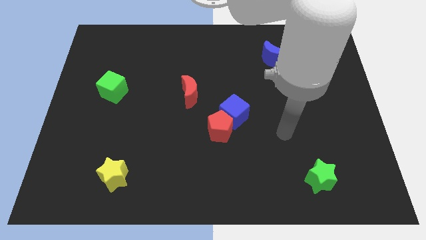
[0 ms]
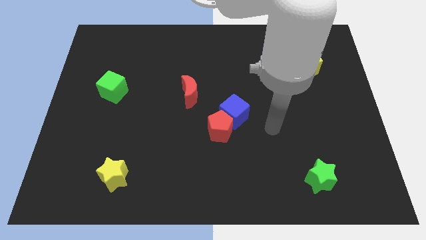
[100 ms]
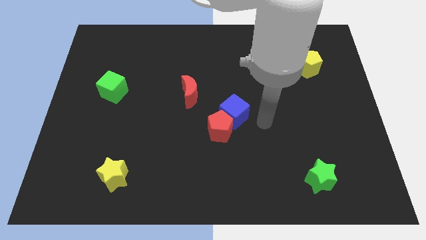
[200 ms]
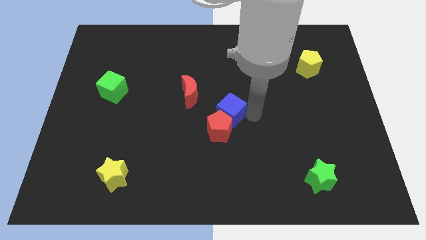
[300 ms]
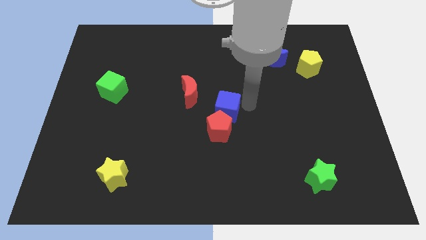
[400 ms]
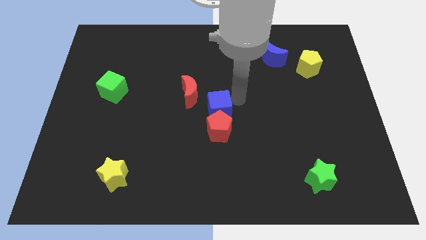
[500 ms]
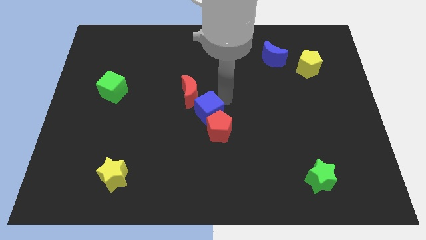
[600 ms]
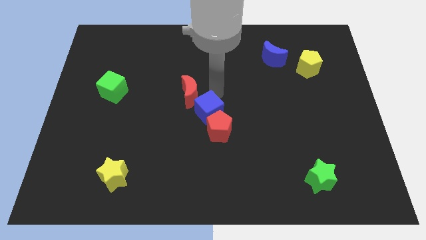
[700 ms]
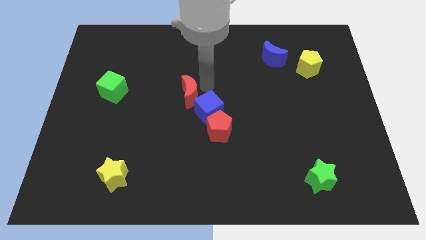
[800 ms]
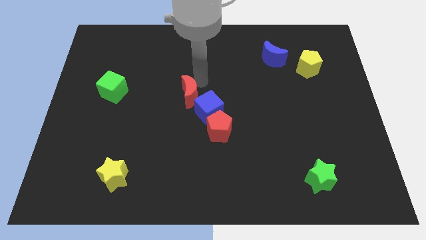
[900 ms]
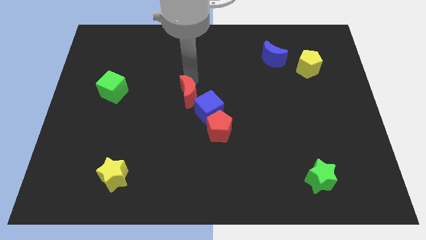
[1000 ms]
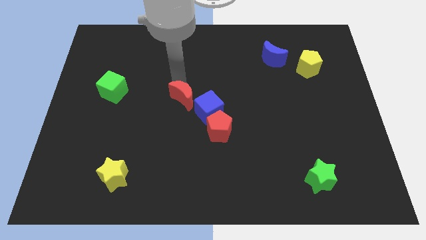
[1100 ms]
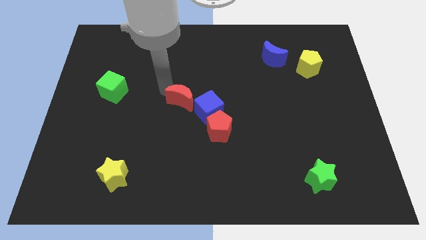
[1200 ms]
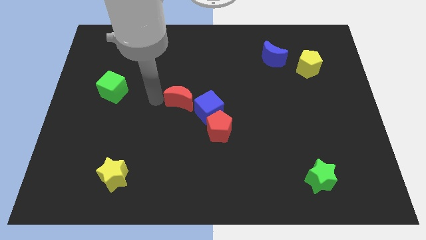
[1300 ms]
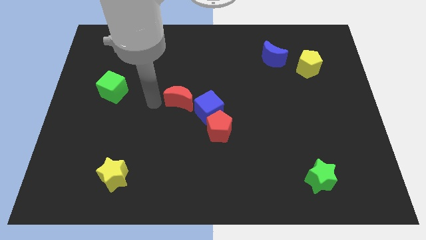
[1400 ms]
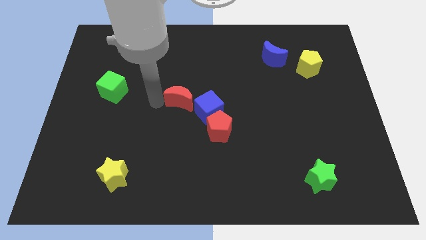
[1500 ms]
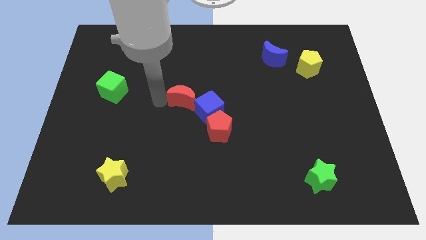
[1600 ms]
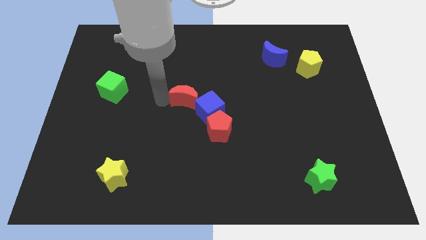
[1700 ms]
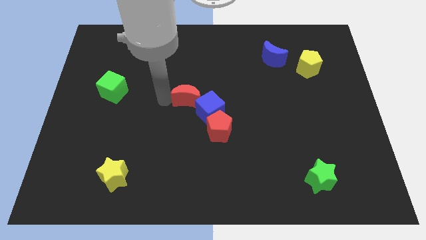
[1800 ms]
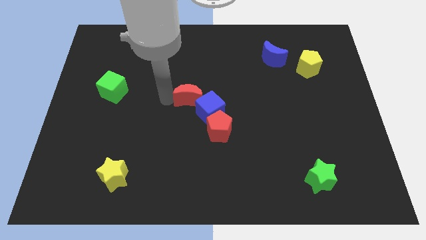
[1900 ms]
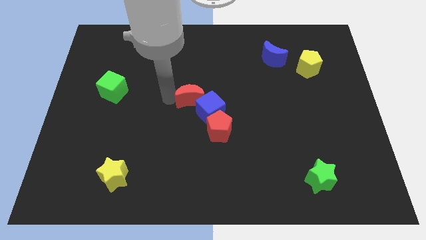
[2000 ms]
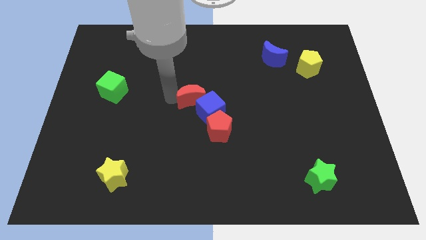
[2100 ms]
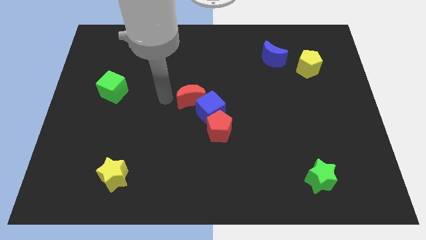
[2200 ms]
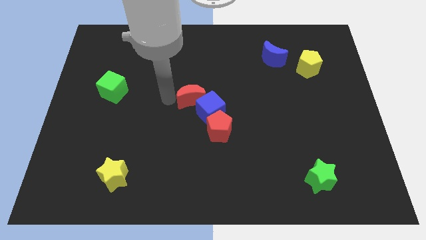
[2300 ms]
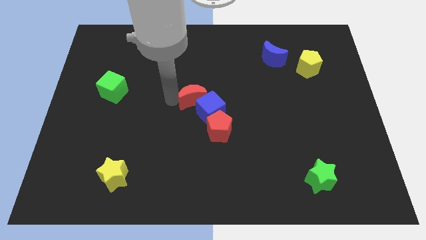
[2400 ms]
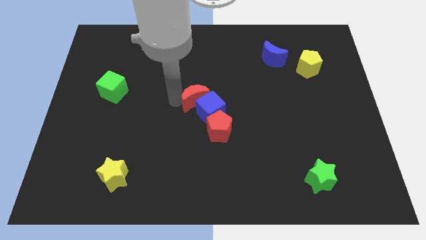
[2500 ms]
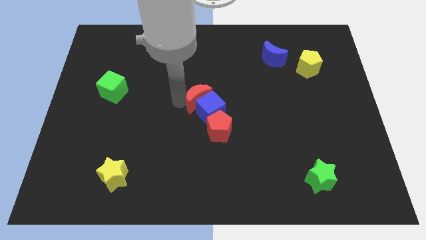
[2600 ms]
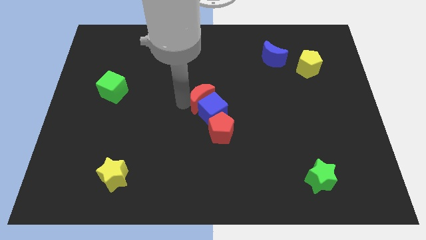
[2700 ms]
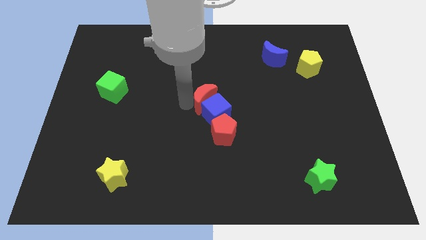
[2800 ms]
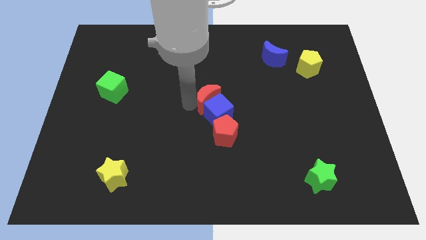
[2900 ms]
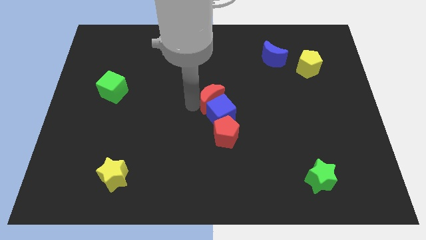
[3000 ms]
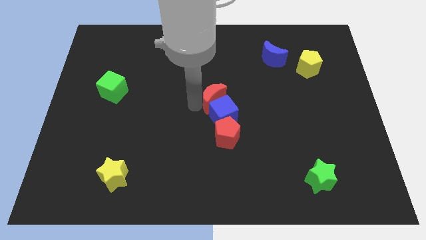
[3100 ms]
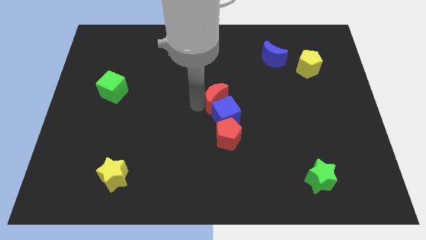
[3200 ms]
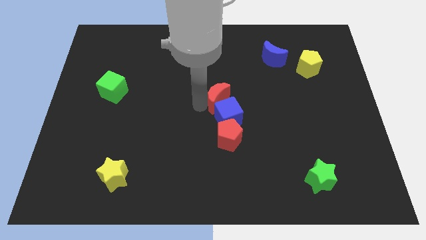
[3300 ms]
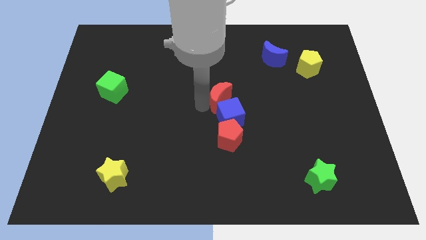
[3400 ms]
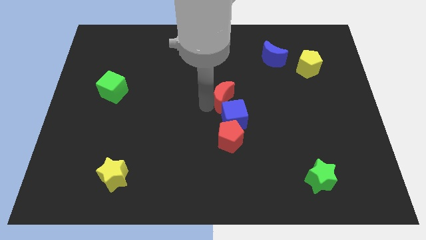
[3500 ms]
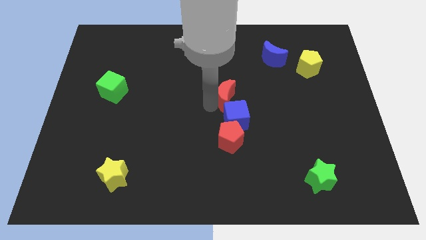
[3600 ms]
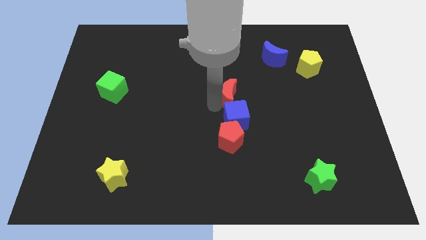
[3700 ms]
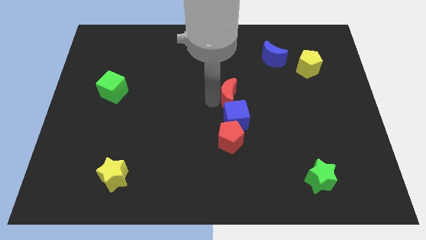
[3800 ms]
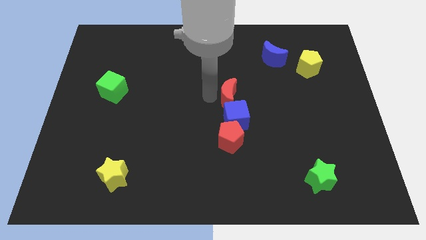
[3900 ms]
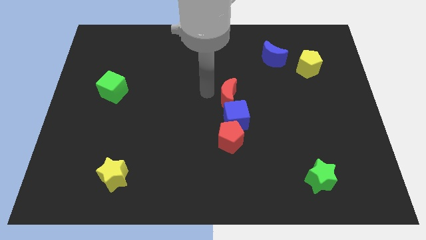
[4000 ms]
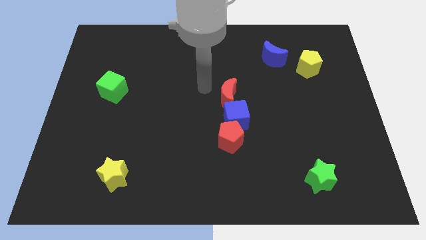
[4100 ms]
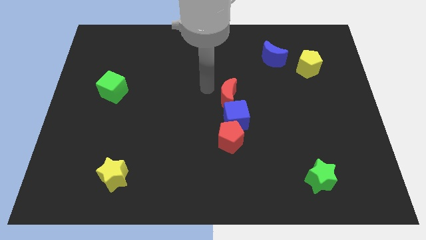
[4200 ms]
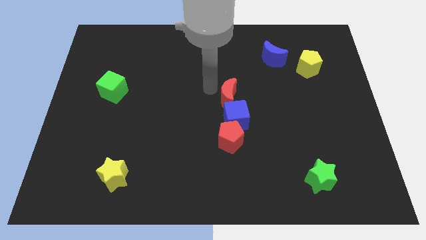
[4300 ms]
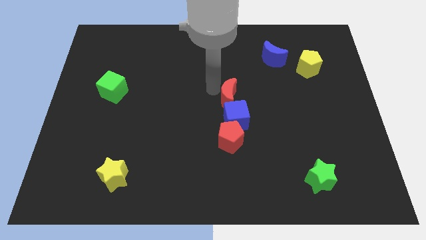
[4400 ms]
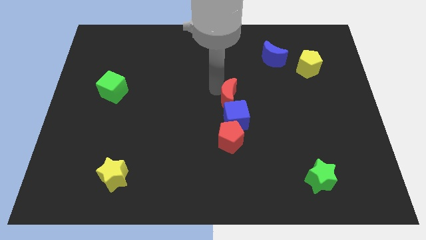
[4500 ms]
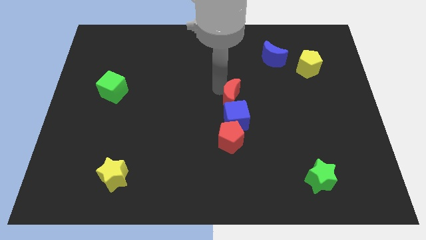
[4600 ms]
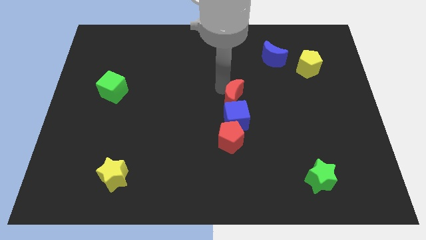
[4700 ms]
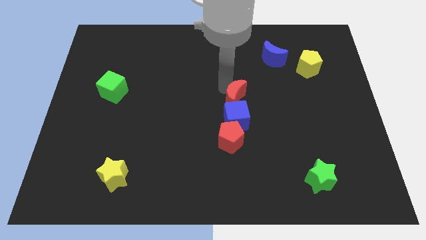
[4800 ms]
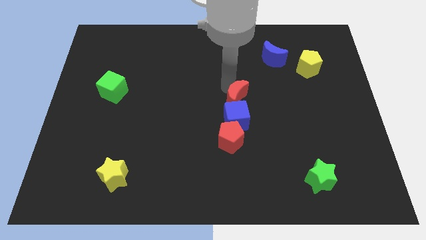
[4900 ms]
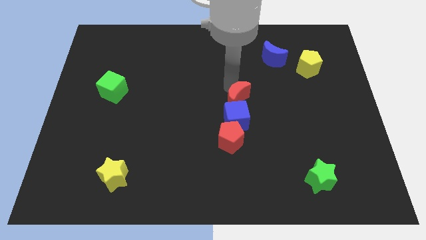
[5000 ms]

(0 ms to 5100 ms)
slightly move the red moon downwards and right

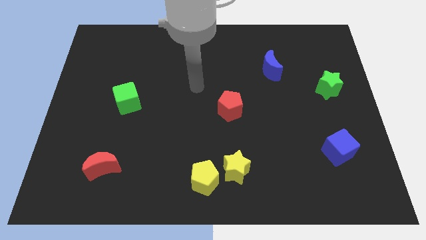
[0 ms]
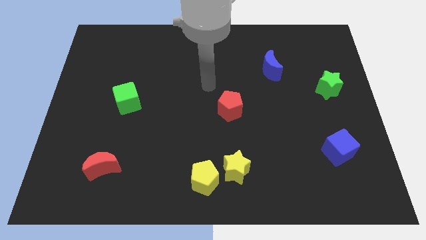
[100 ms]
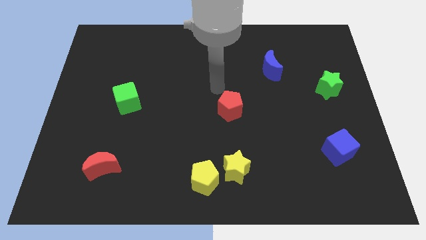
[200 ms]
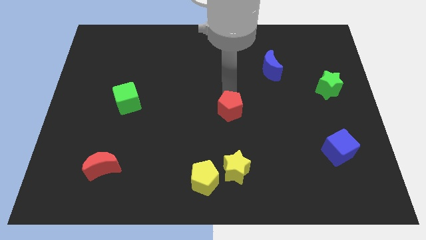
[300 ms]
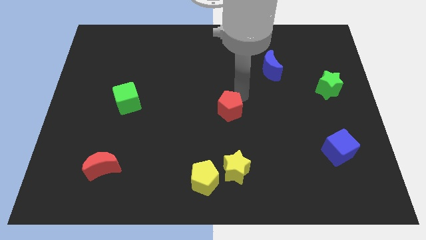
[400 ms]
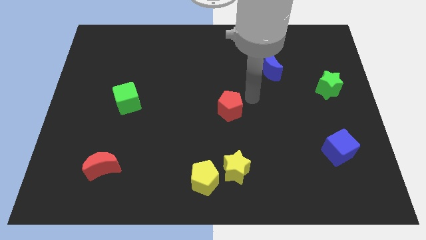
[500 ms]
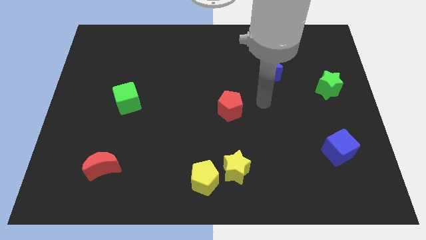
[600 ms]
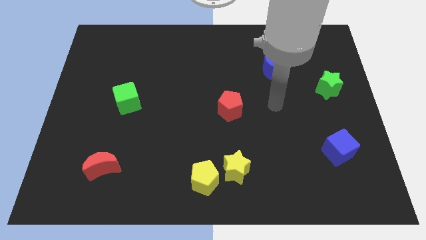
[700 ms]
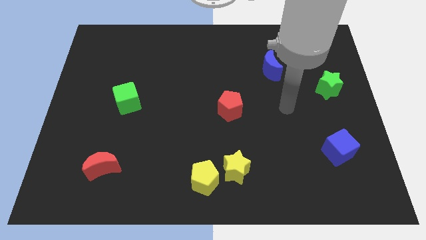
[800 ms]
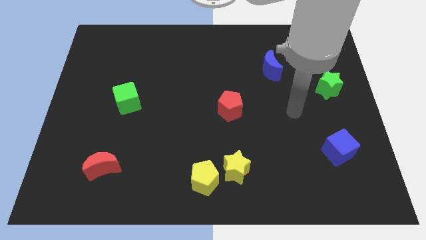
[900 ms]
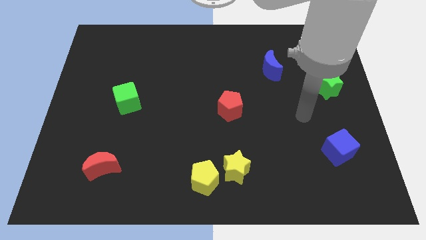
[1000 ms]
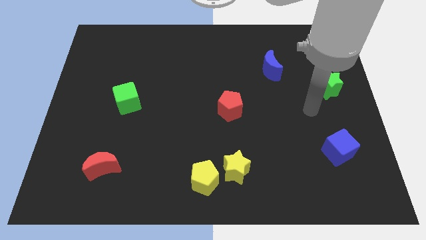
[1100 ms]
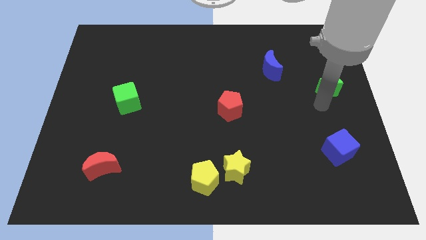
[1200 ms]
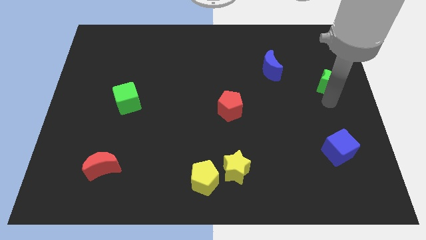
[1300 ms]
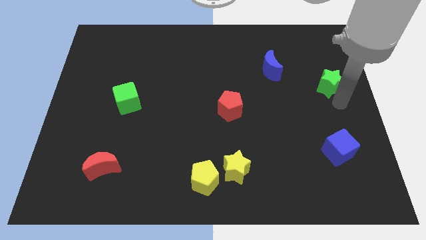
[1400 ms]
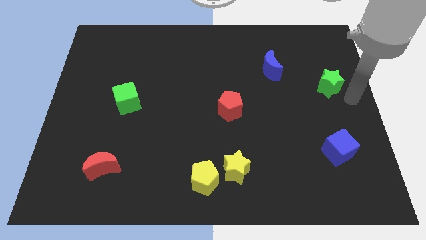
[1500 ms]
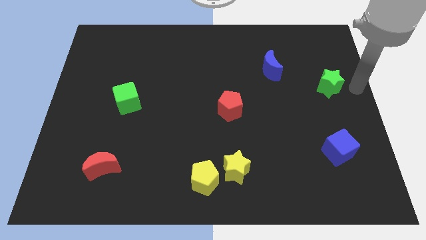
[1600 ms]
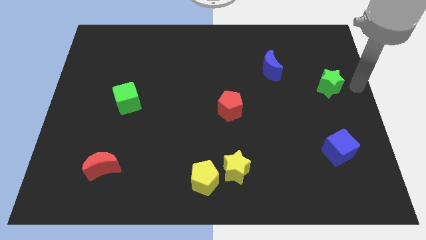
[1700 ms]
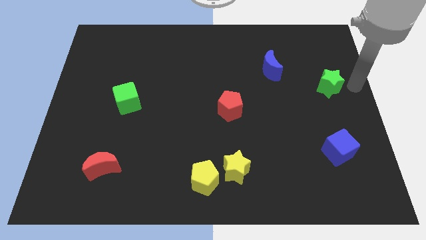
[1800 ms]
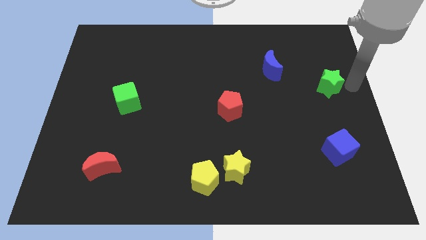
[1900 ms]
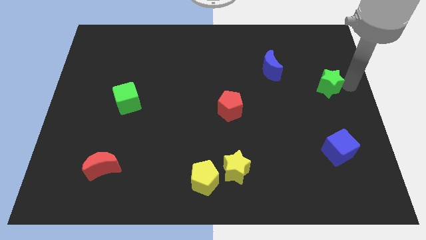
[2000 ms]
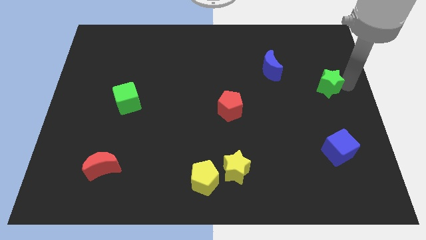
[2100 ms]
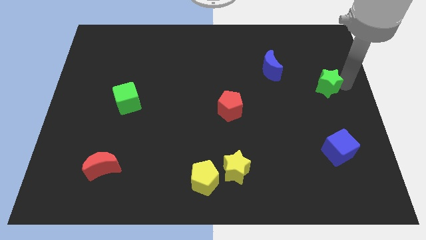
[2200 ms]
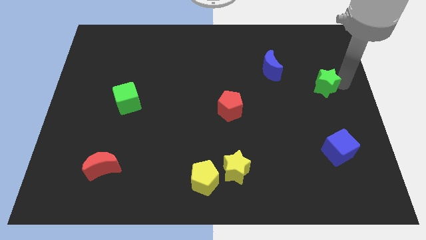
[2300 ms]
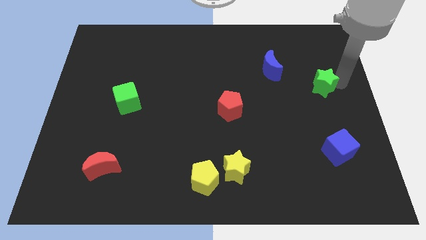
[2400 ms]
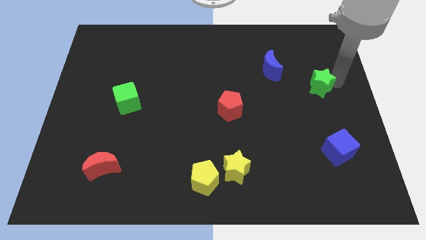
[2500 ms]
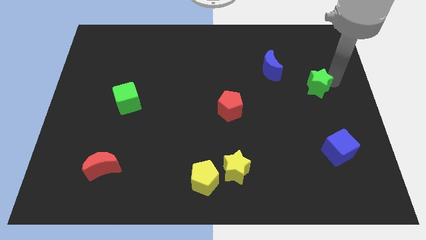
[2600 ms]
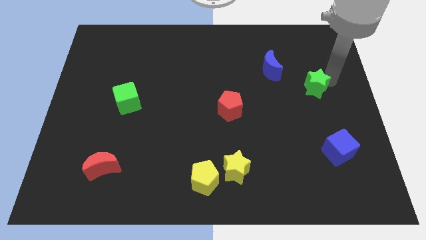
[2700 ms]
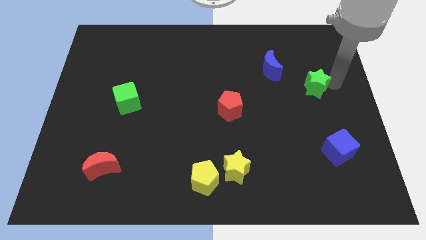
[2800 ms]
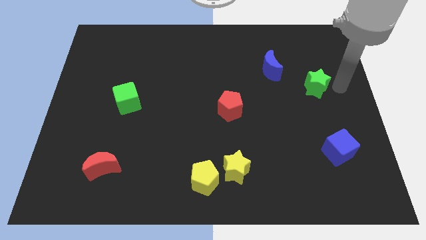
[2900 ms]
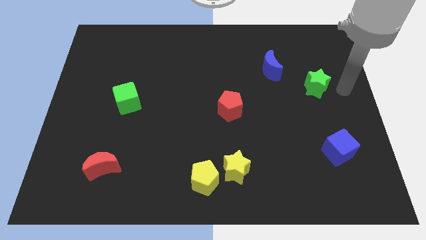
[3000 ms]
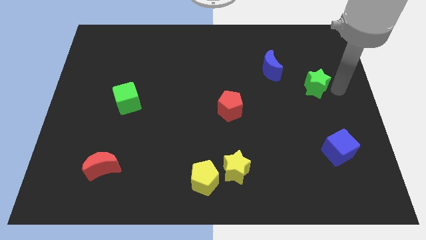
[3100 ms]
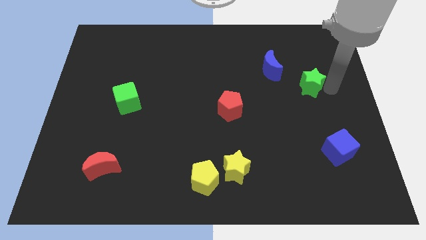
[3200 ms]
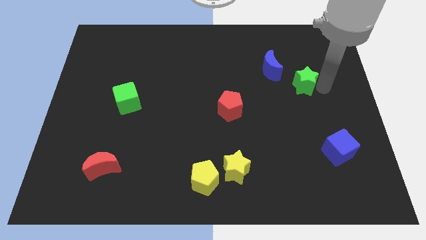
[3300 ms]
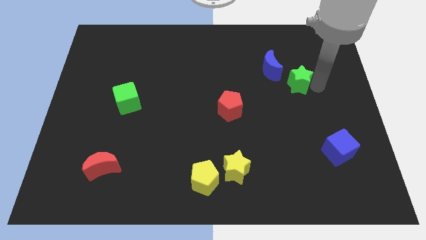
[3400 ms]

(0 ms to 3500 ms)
push the green star a little bit to the left
